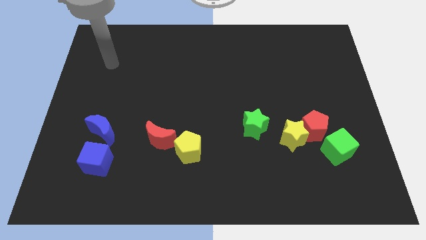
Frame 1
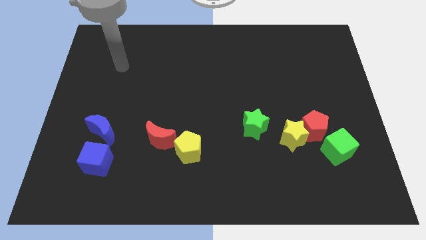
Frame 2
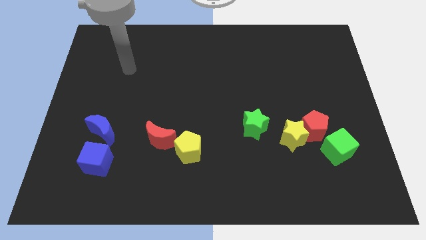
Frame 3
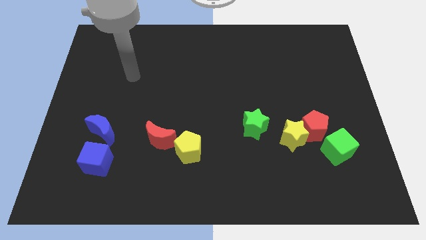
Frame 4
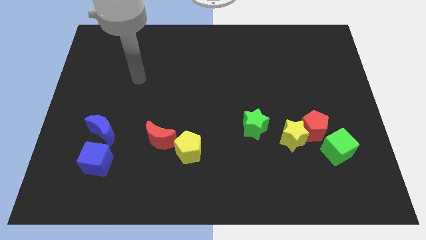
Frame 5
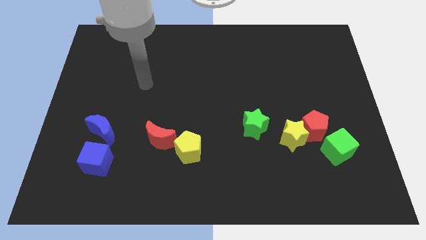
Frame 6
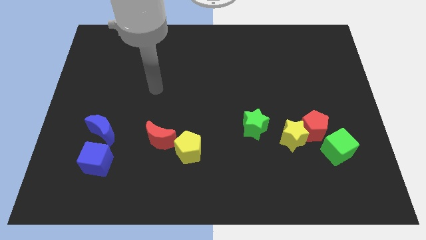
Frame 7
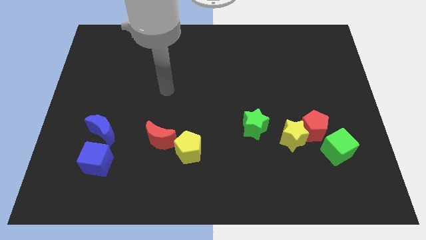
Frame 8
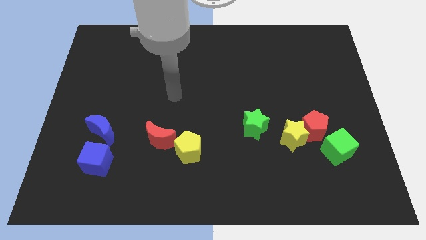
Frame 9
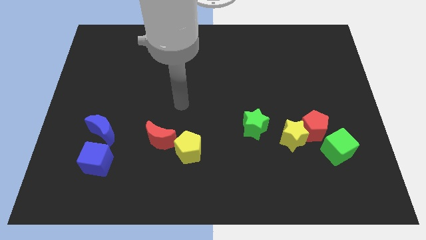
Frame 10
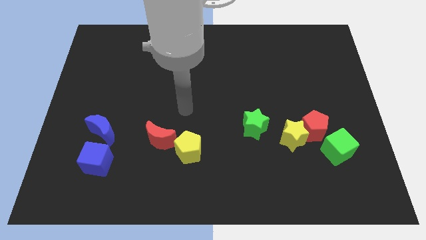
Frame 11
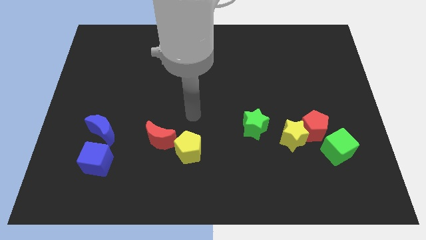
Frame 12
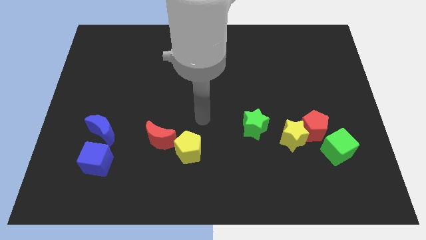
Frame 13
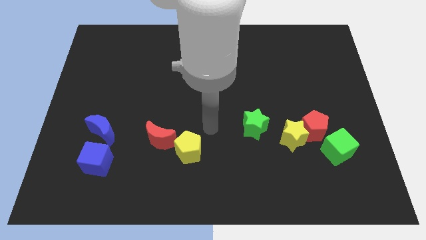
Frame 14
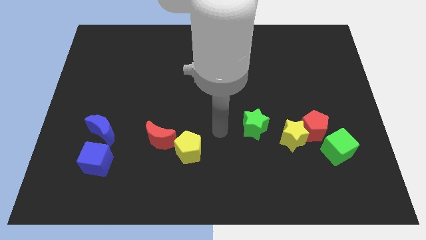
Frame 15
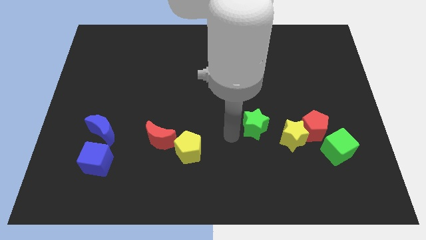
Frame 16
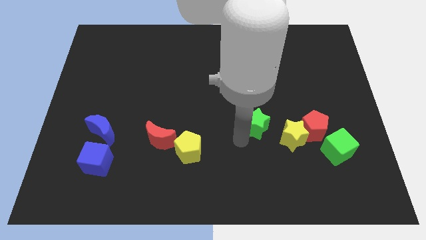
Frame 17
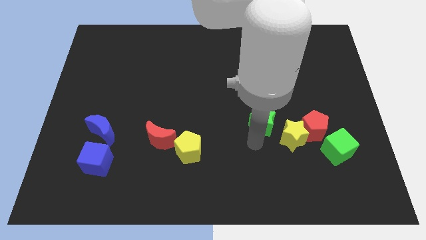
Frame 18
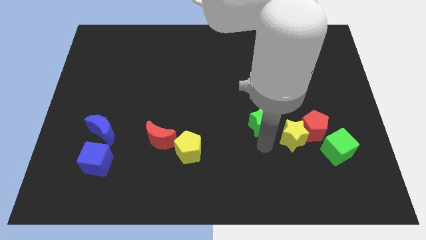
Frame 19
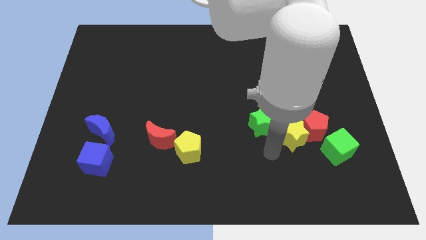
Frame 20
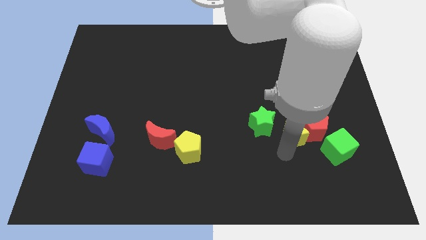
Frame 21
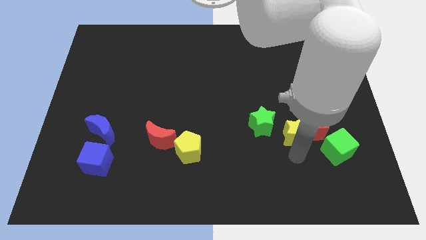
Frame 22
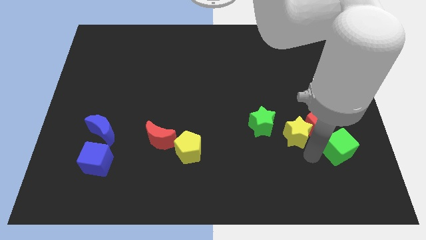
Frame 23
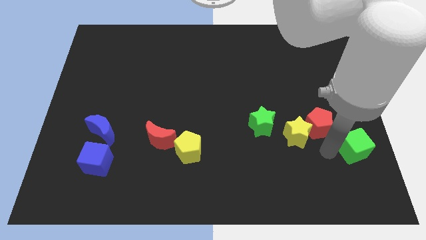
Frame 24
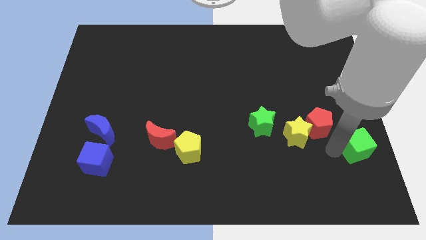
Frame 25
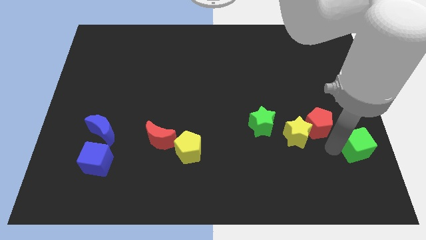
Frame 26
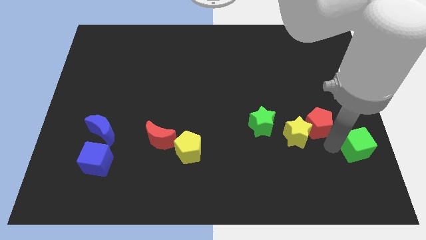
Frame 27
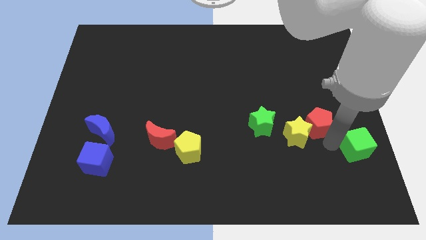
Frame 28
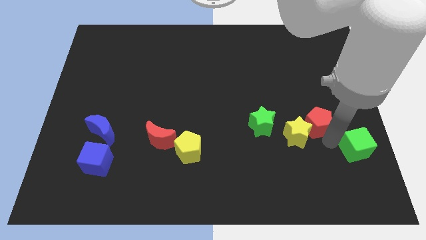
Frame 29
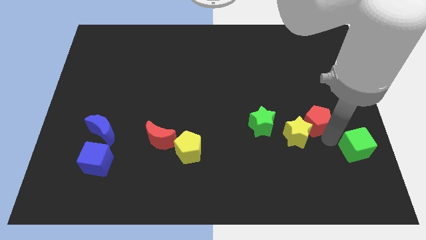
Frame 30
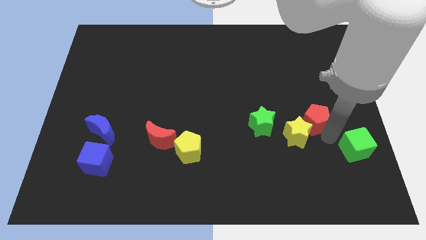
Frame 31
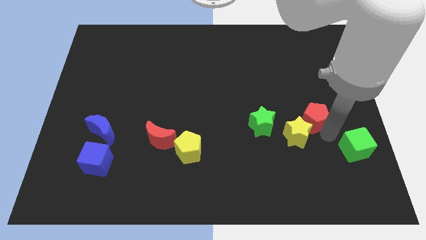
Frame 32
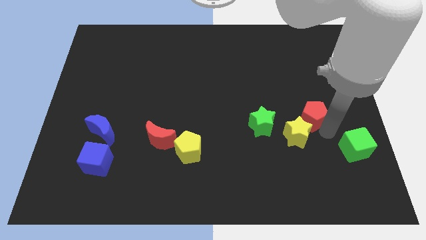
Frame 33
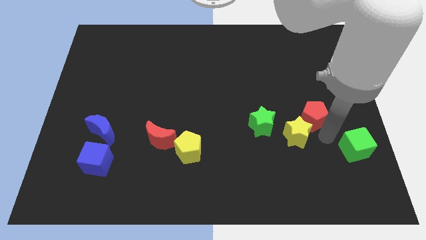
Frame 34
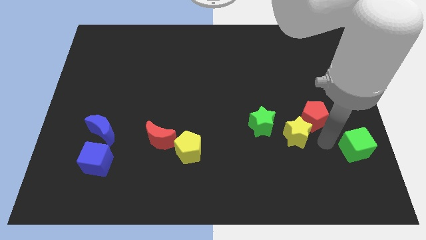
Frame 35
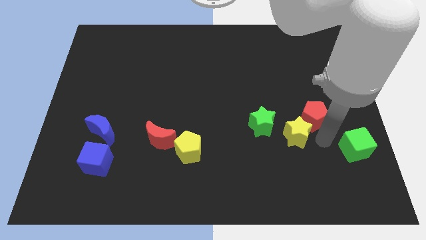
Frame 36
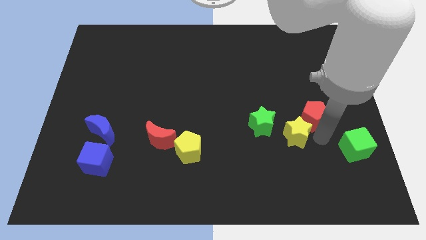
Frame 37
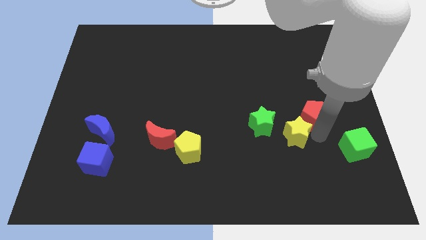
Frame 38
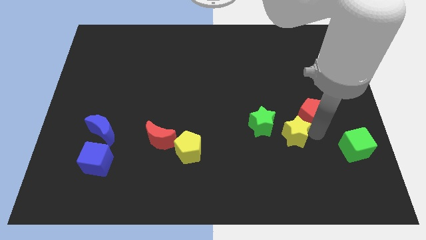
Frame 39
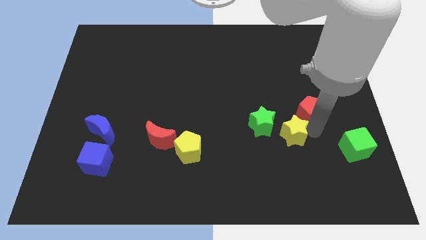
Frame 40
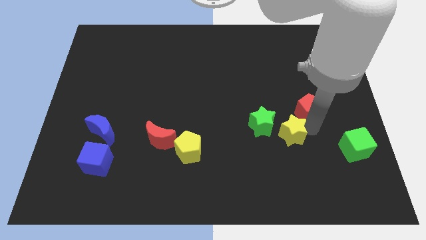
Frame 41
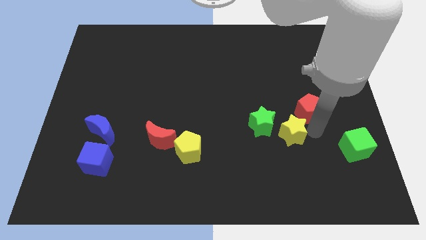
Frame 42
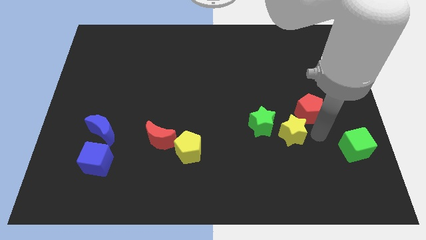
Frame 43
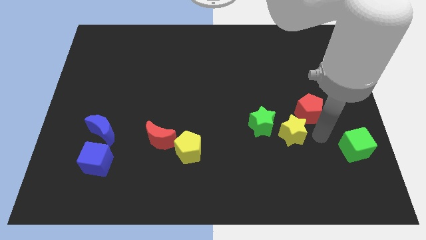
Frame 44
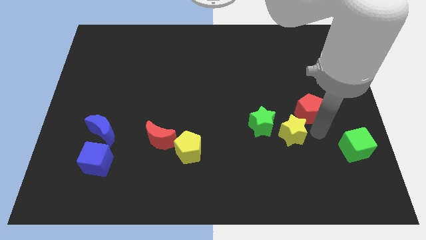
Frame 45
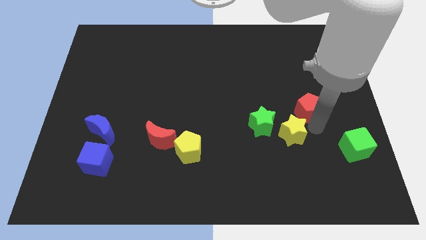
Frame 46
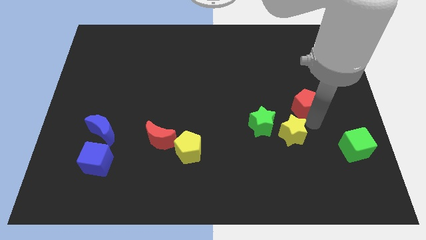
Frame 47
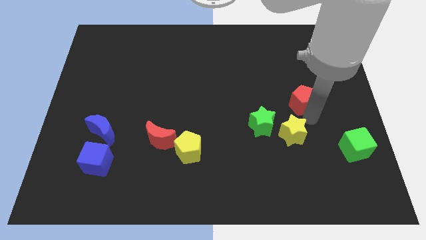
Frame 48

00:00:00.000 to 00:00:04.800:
pull the red pentagon apart from the yellow star and green cube

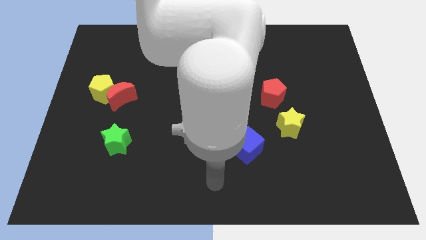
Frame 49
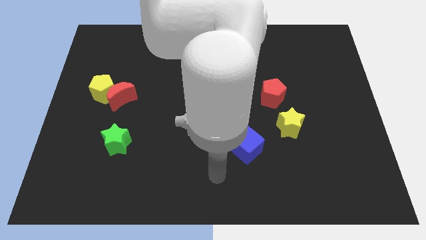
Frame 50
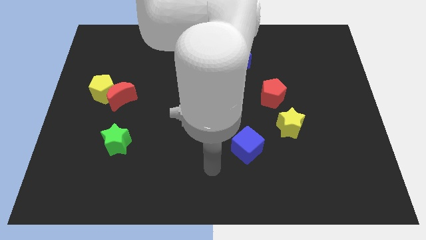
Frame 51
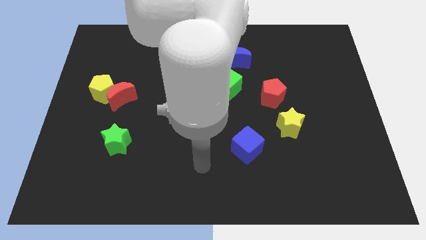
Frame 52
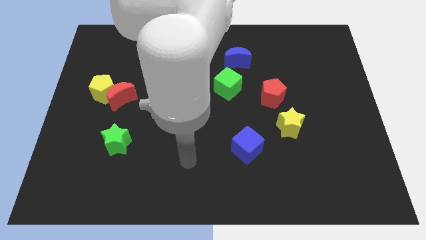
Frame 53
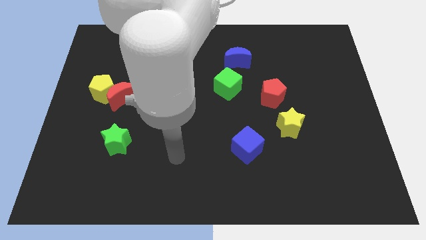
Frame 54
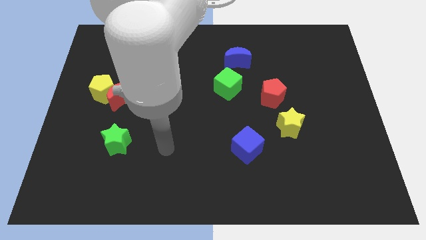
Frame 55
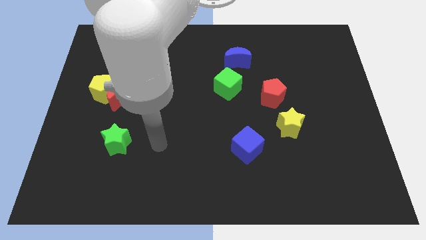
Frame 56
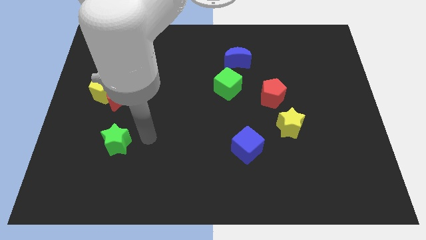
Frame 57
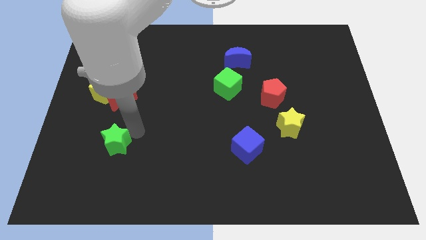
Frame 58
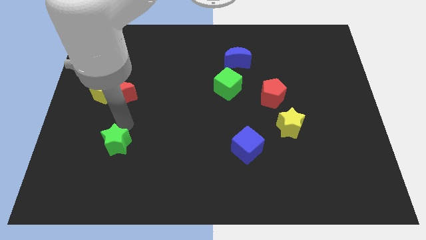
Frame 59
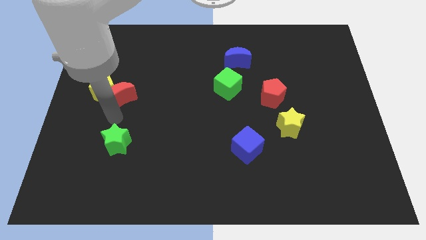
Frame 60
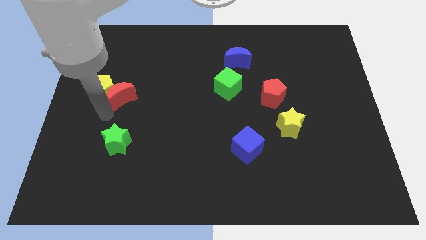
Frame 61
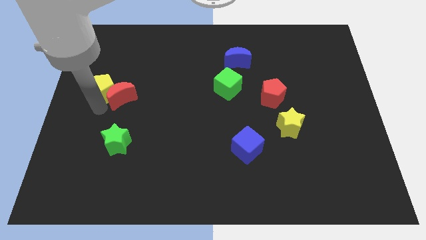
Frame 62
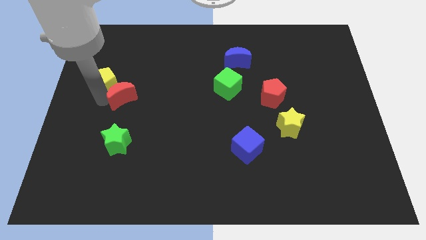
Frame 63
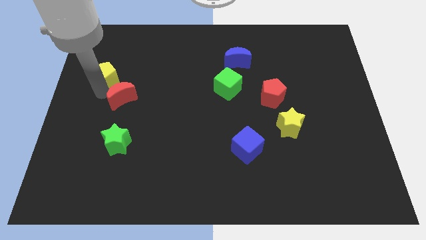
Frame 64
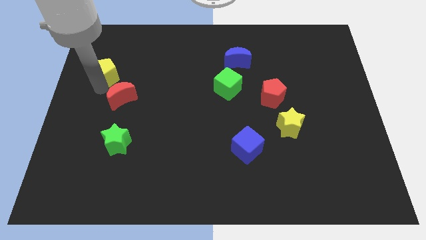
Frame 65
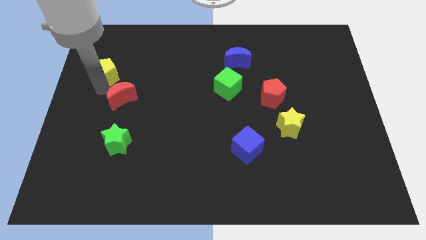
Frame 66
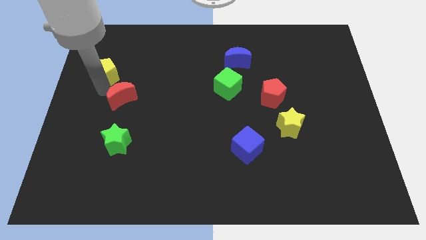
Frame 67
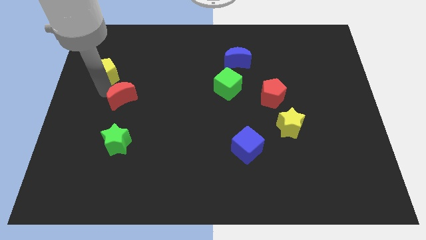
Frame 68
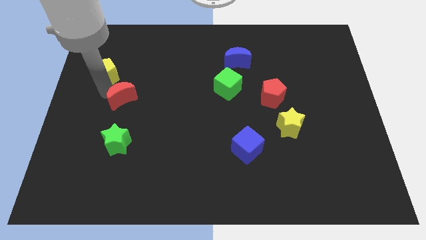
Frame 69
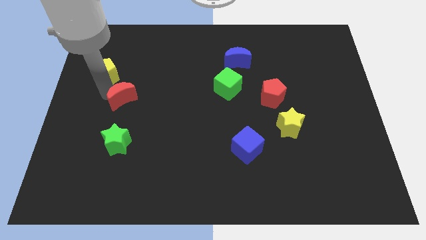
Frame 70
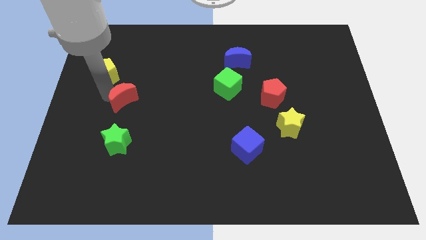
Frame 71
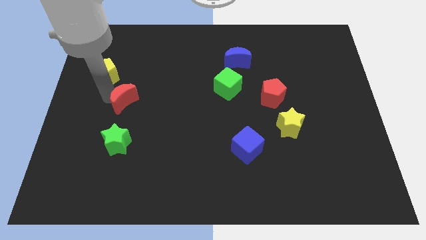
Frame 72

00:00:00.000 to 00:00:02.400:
pull the red moon apart from the yellow pentagon

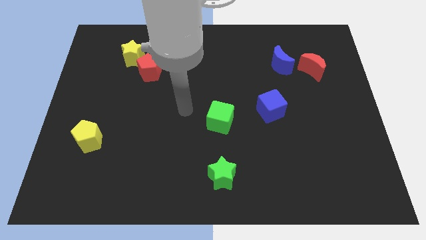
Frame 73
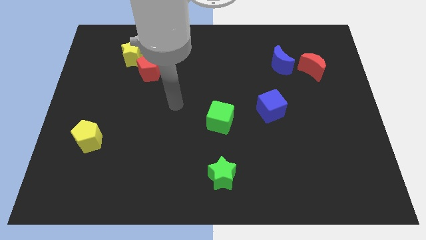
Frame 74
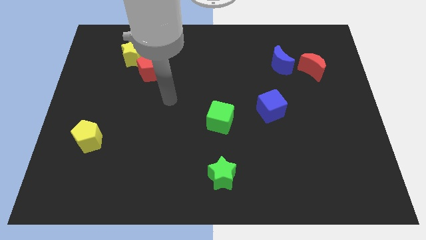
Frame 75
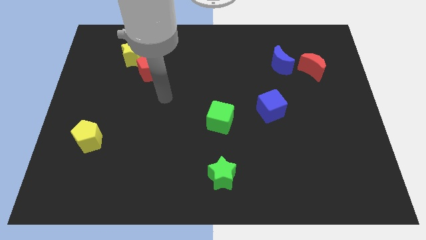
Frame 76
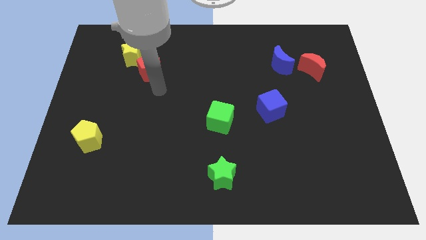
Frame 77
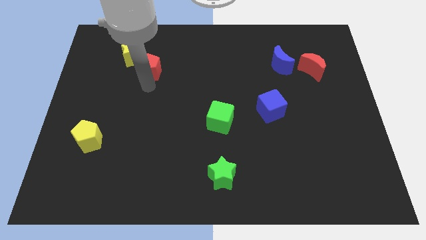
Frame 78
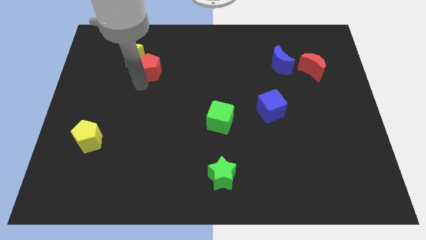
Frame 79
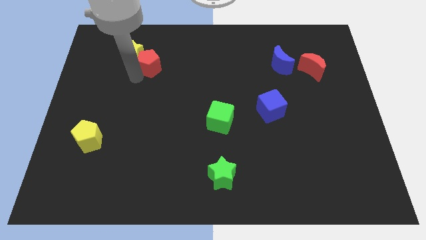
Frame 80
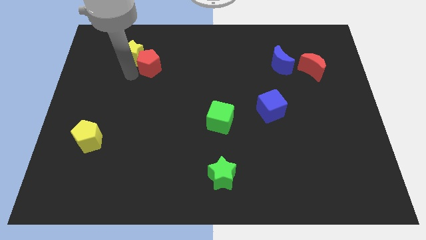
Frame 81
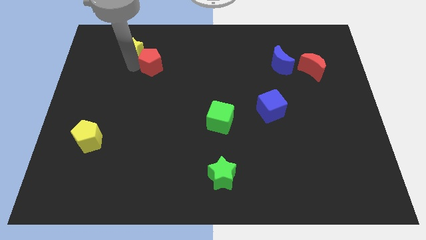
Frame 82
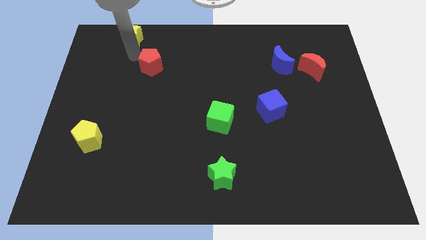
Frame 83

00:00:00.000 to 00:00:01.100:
move the red pentagon away from the yellow star

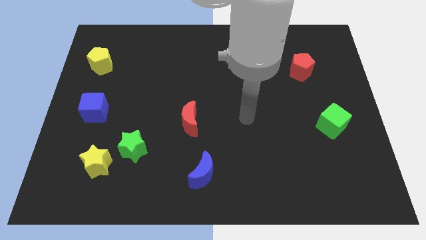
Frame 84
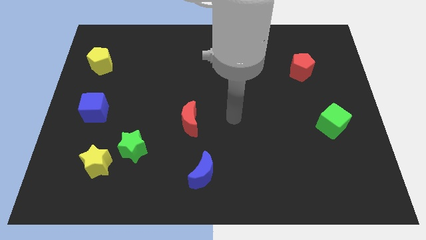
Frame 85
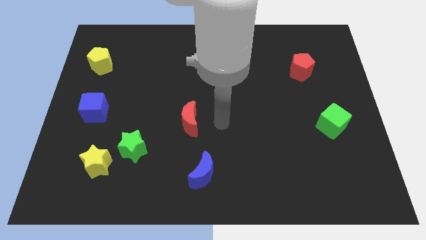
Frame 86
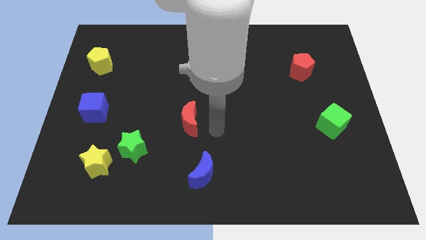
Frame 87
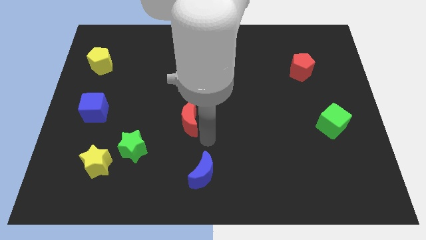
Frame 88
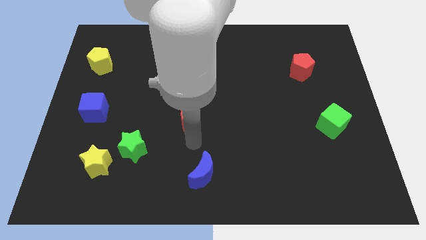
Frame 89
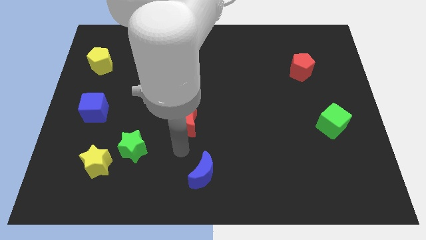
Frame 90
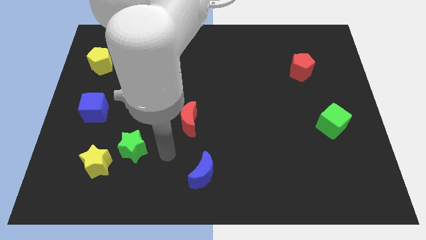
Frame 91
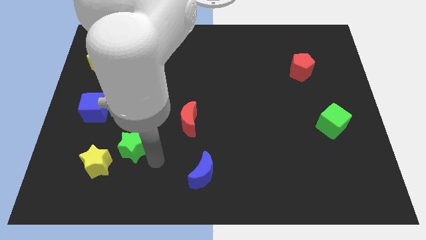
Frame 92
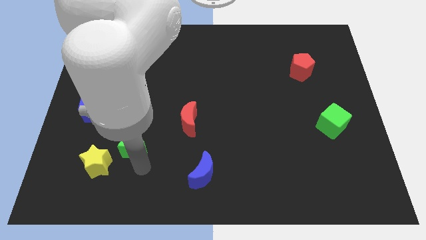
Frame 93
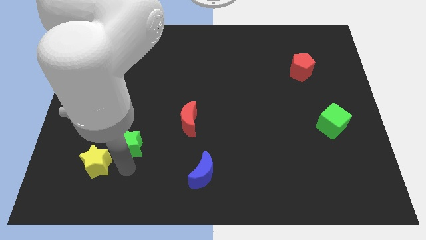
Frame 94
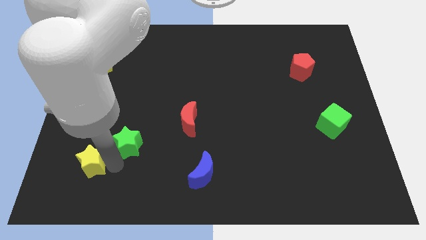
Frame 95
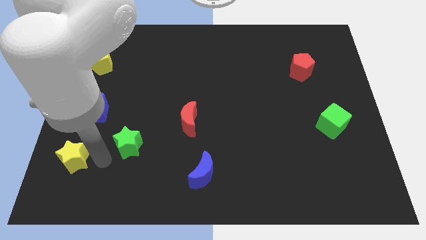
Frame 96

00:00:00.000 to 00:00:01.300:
separate the green star from the yellow star
